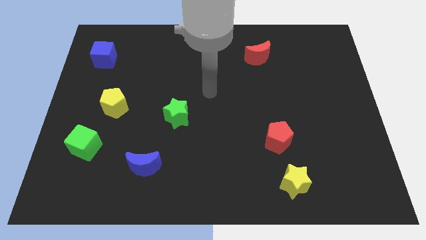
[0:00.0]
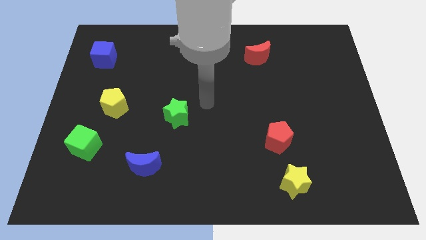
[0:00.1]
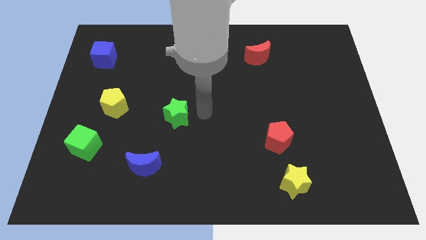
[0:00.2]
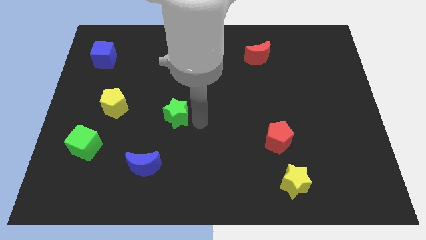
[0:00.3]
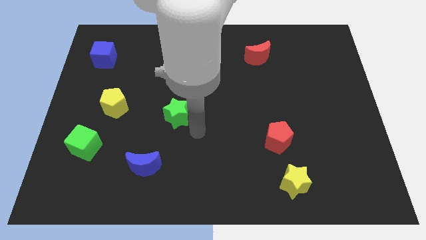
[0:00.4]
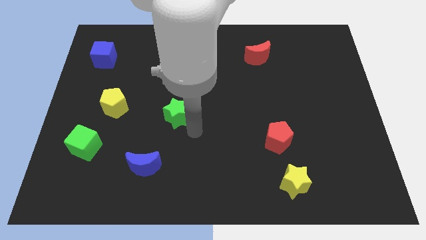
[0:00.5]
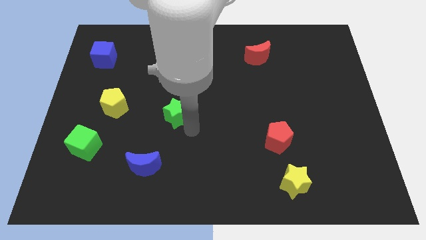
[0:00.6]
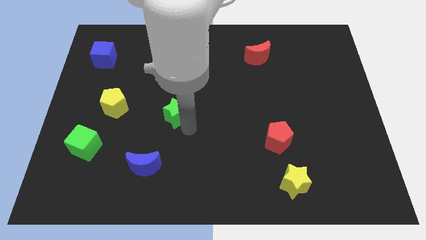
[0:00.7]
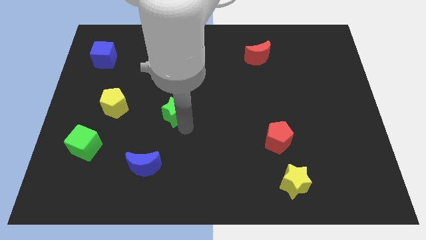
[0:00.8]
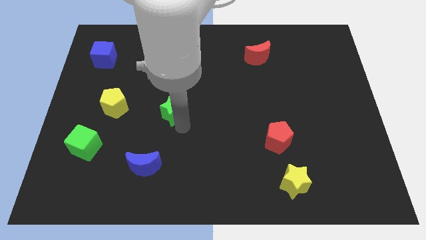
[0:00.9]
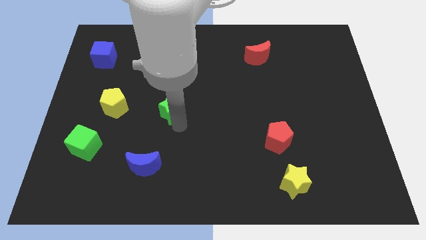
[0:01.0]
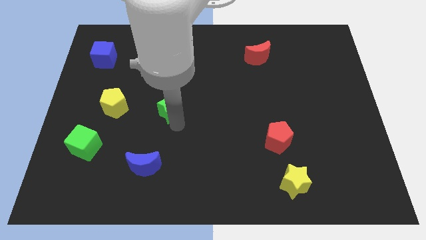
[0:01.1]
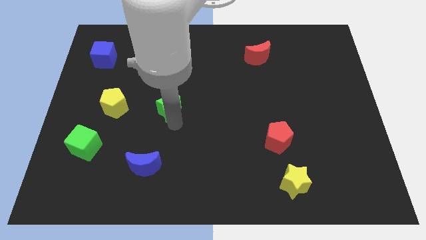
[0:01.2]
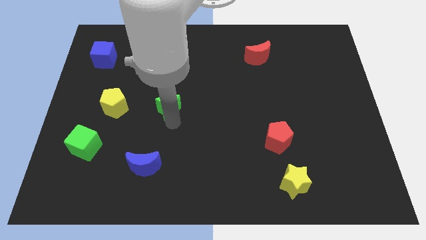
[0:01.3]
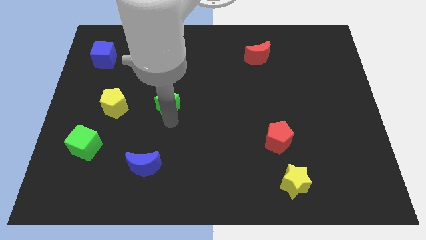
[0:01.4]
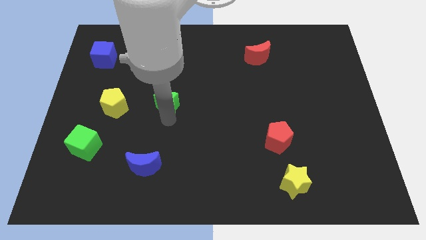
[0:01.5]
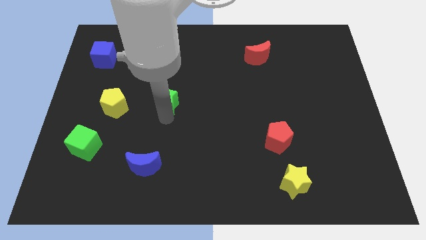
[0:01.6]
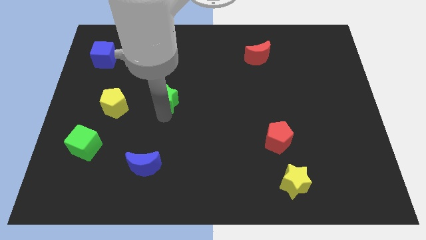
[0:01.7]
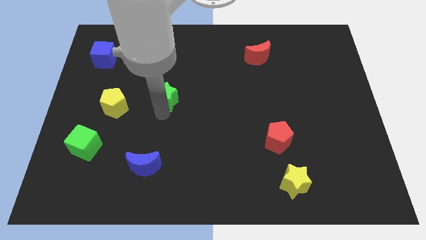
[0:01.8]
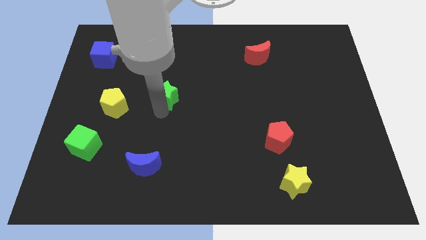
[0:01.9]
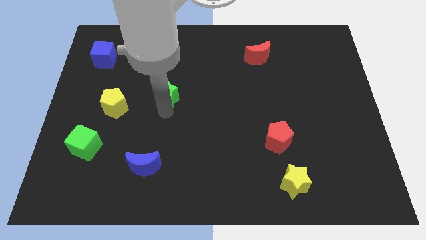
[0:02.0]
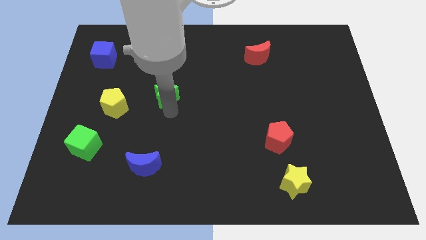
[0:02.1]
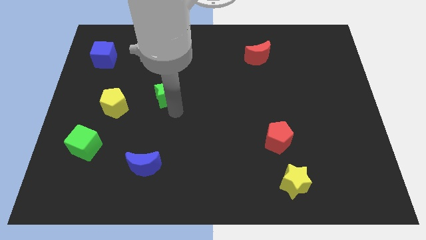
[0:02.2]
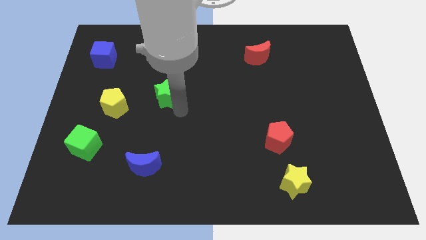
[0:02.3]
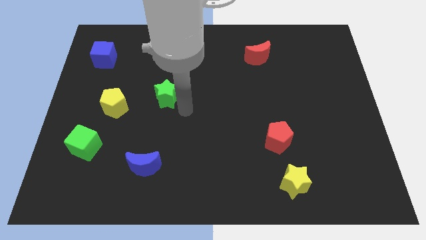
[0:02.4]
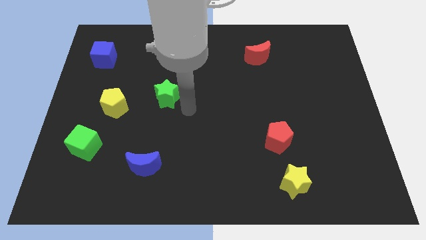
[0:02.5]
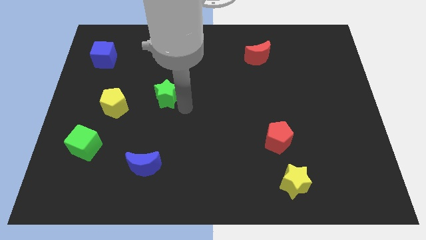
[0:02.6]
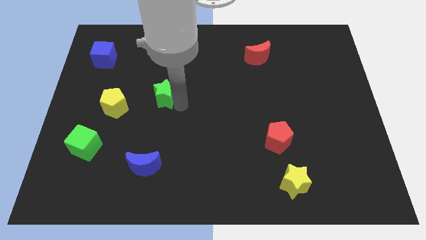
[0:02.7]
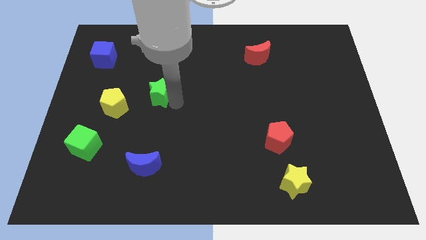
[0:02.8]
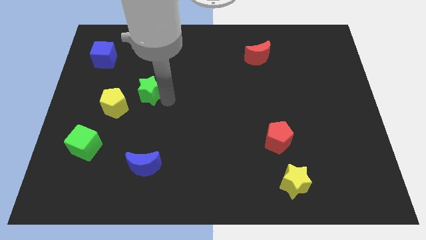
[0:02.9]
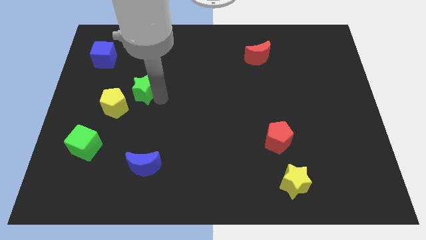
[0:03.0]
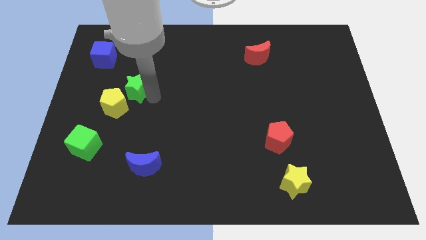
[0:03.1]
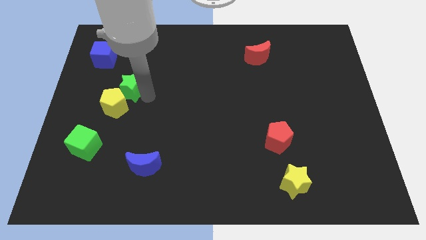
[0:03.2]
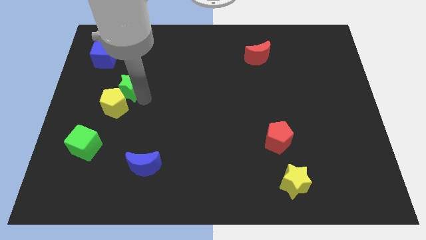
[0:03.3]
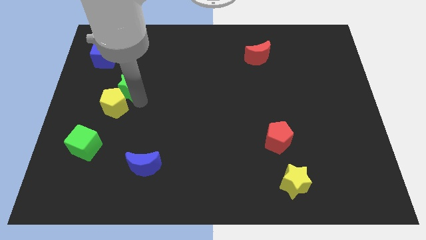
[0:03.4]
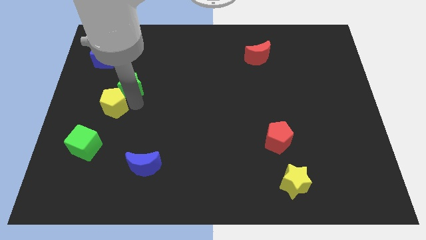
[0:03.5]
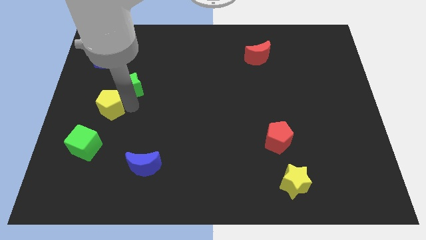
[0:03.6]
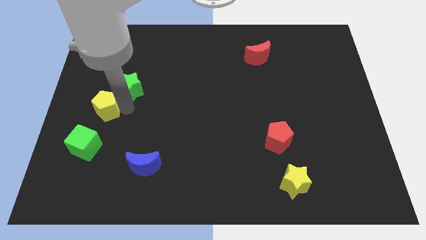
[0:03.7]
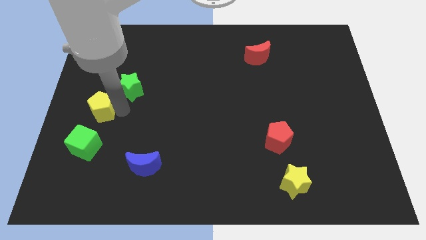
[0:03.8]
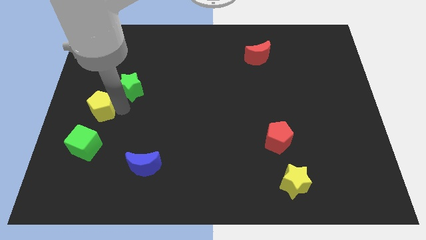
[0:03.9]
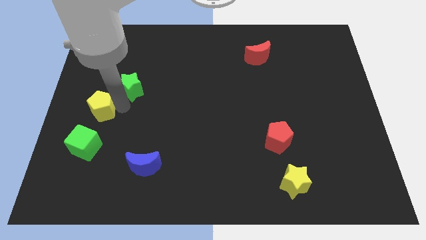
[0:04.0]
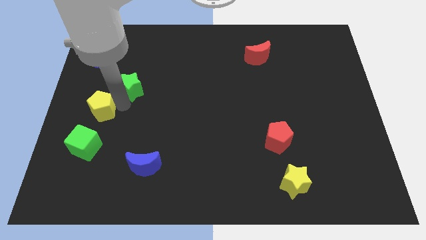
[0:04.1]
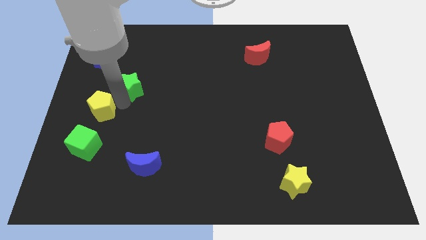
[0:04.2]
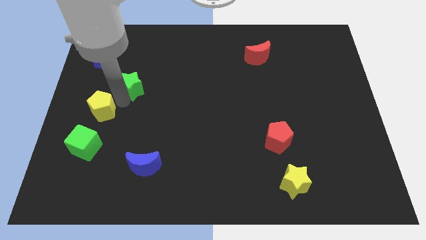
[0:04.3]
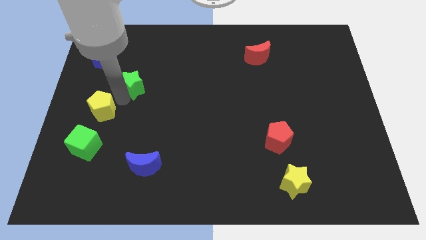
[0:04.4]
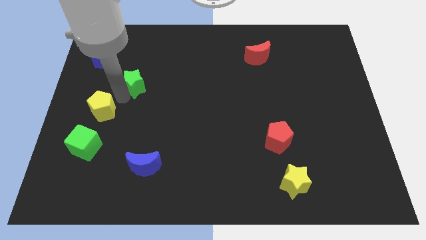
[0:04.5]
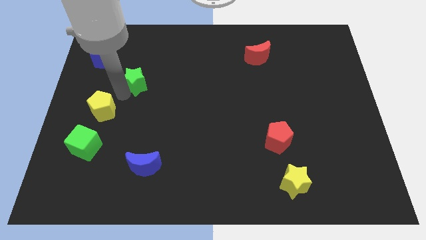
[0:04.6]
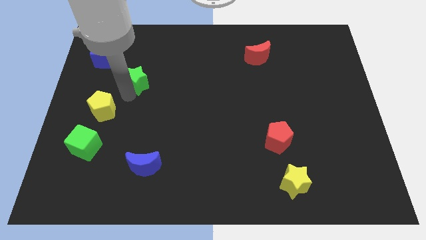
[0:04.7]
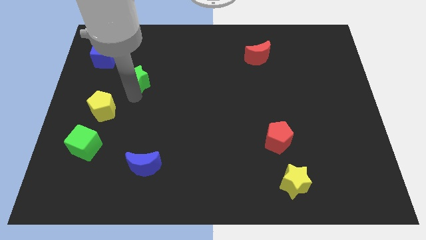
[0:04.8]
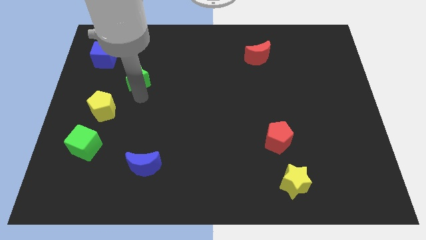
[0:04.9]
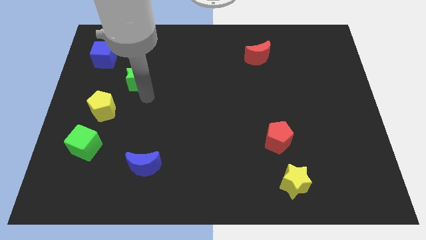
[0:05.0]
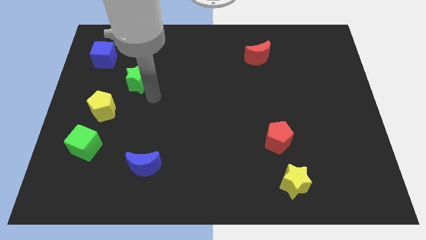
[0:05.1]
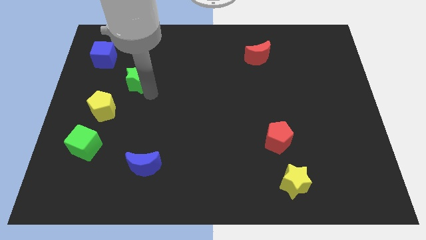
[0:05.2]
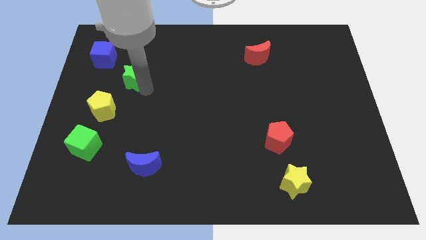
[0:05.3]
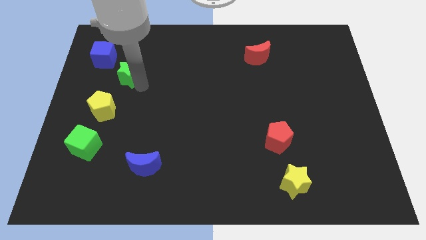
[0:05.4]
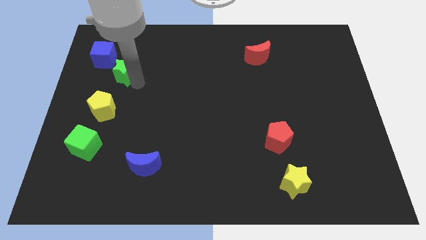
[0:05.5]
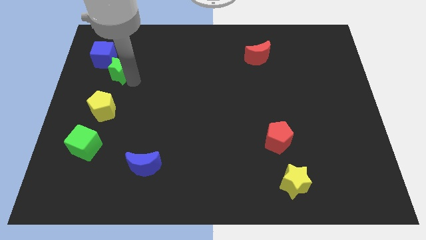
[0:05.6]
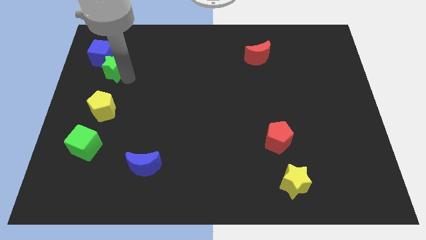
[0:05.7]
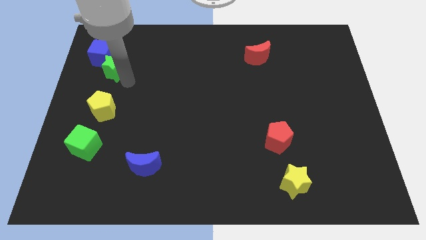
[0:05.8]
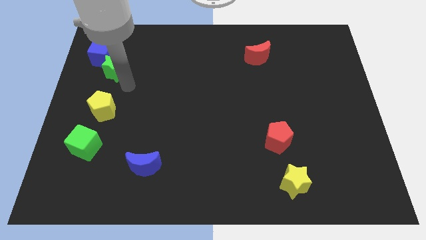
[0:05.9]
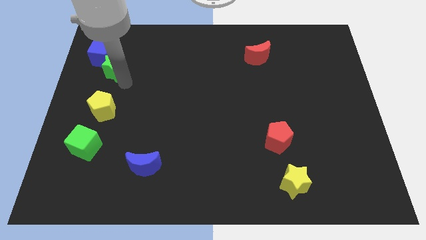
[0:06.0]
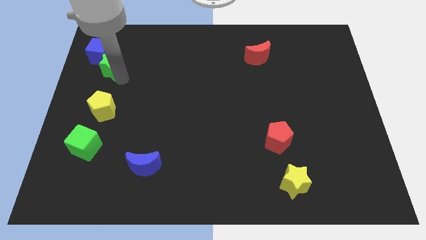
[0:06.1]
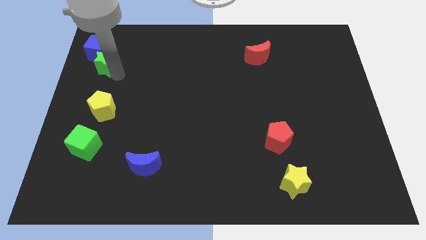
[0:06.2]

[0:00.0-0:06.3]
put the green star to the blue cube

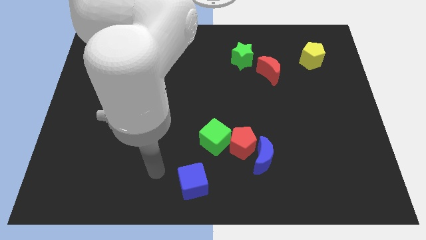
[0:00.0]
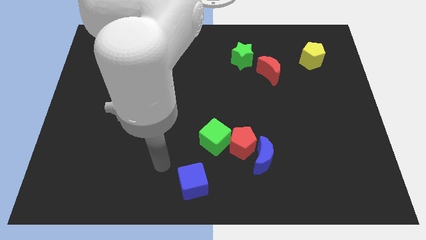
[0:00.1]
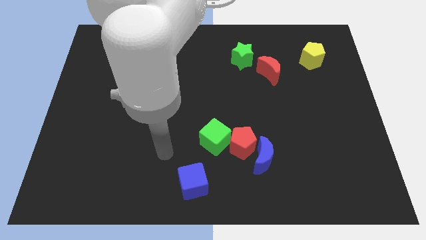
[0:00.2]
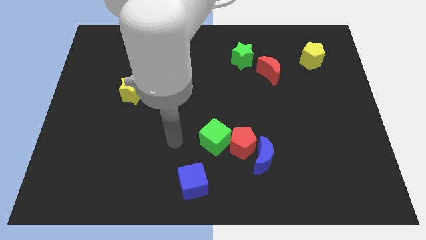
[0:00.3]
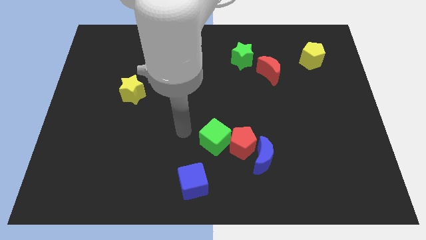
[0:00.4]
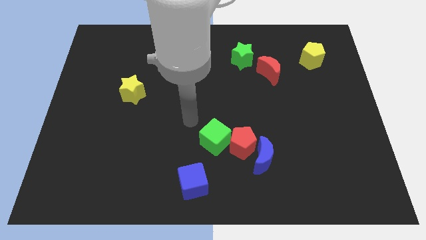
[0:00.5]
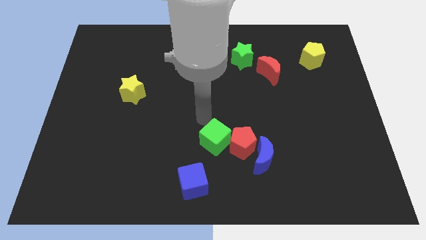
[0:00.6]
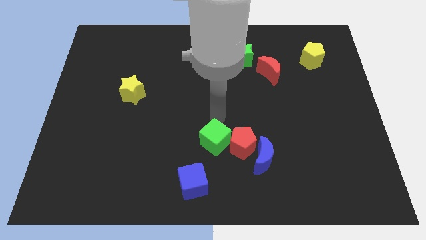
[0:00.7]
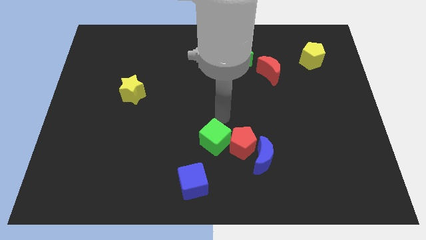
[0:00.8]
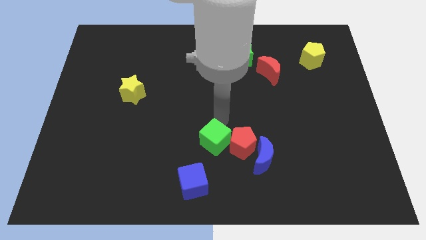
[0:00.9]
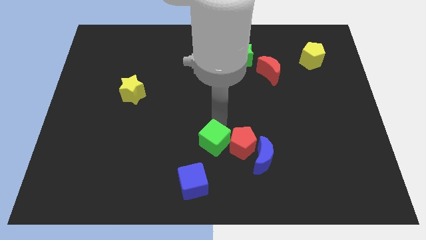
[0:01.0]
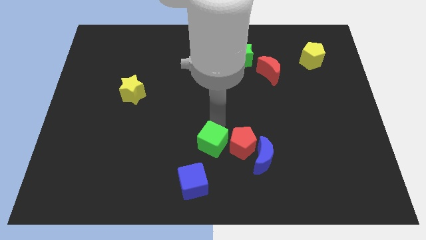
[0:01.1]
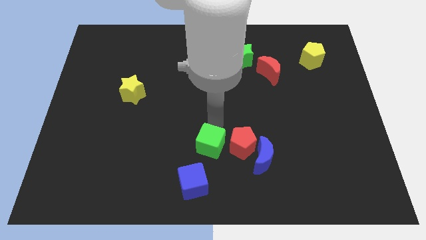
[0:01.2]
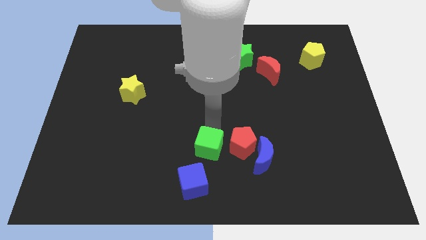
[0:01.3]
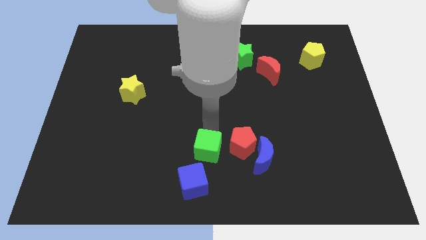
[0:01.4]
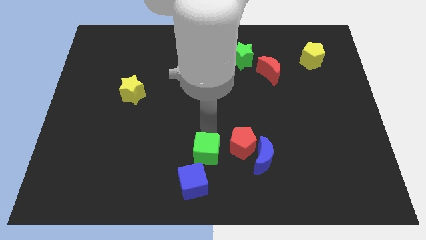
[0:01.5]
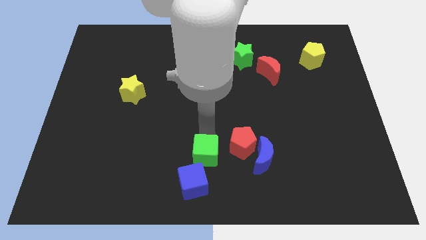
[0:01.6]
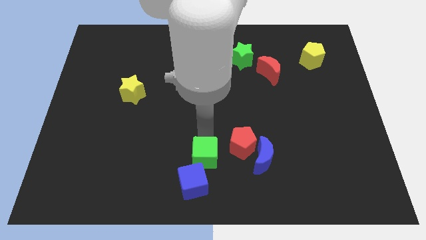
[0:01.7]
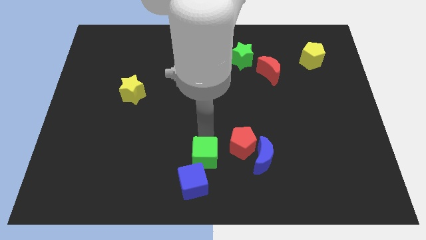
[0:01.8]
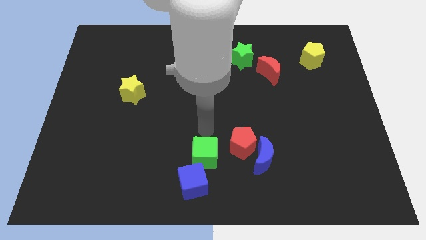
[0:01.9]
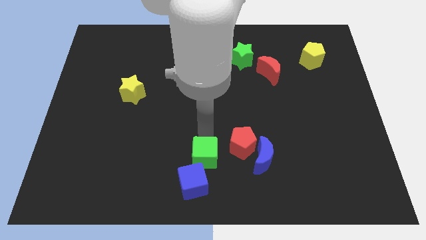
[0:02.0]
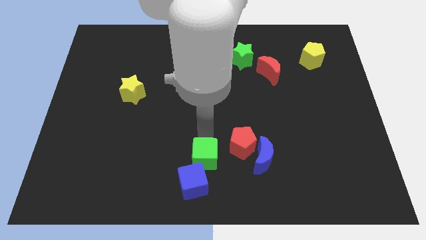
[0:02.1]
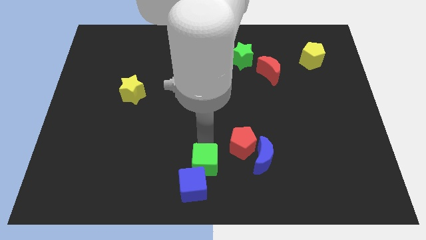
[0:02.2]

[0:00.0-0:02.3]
slide the green cube close to the blue cube
